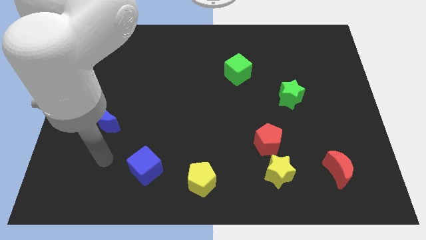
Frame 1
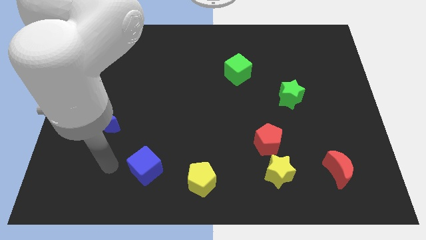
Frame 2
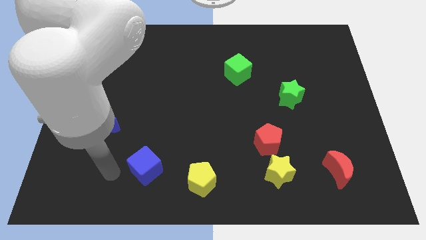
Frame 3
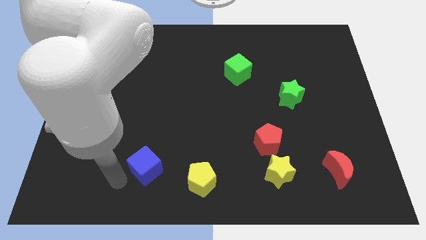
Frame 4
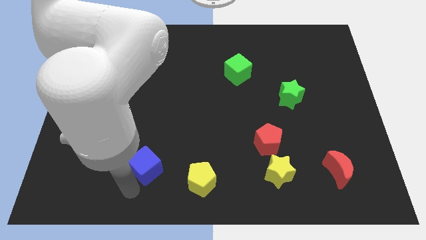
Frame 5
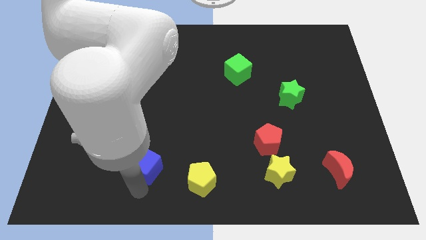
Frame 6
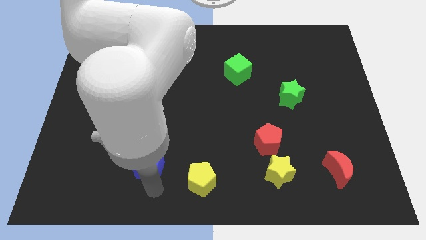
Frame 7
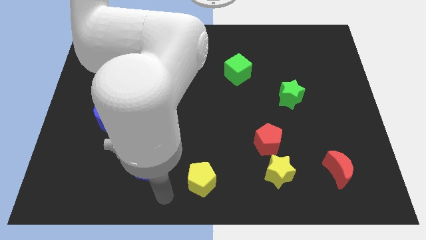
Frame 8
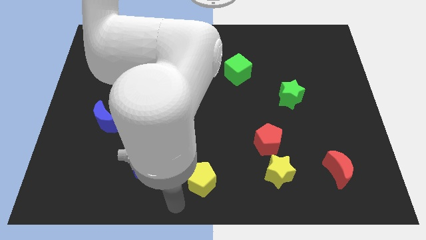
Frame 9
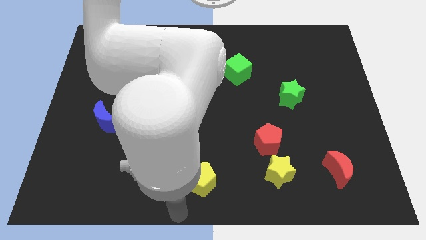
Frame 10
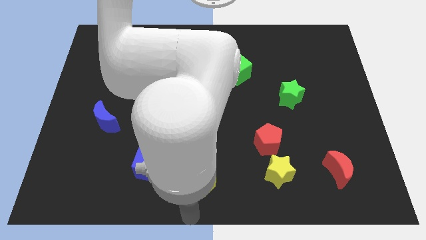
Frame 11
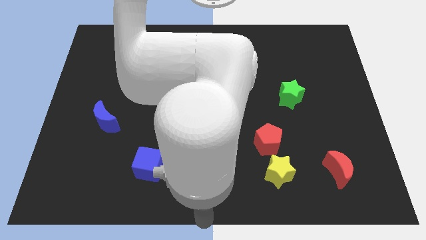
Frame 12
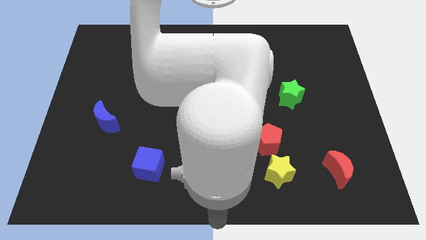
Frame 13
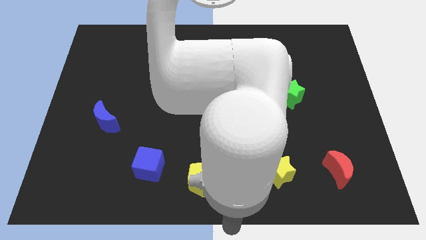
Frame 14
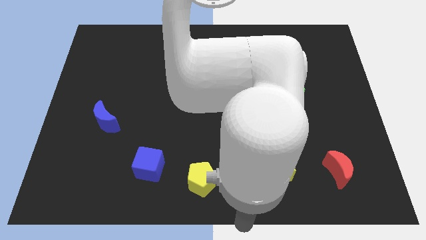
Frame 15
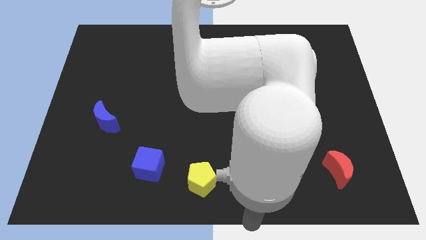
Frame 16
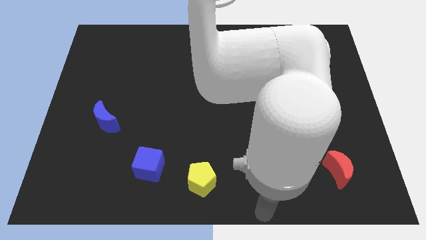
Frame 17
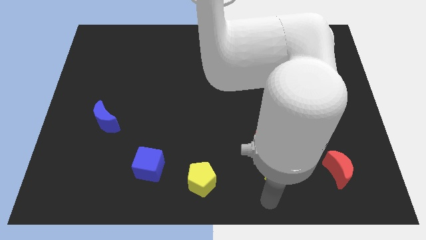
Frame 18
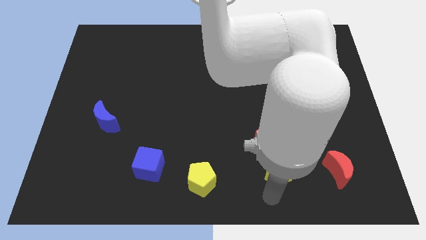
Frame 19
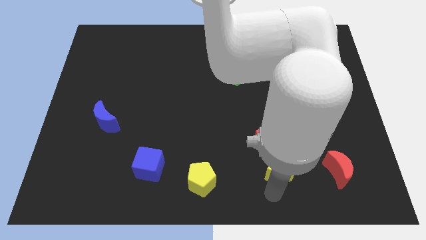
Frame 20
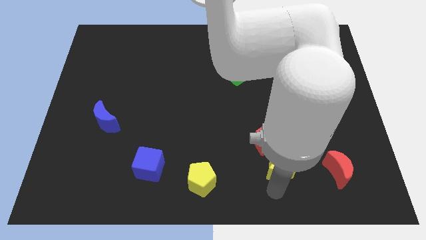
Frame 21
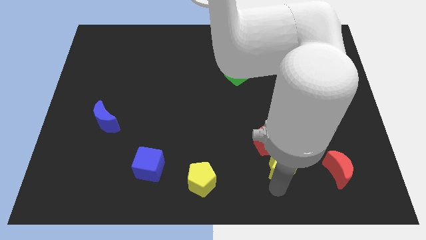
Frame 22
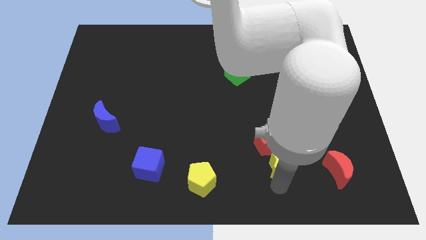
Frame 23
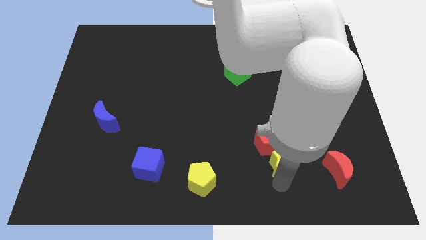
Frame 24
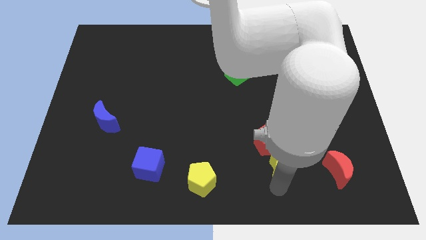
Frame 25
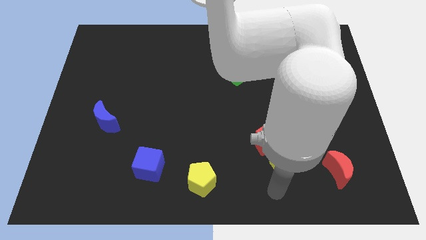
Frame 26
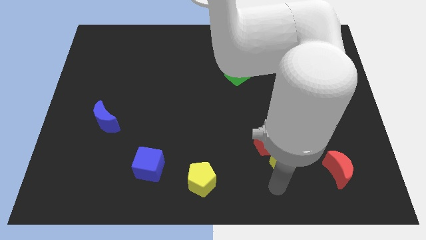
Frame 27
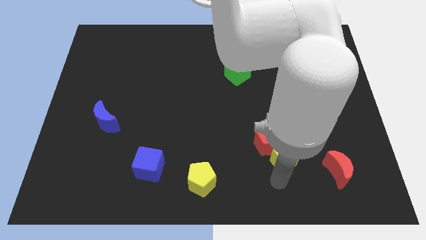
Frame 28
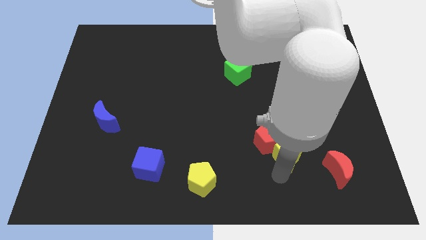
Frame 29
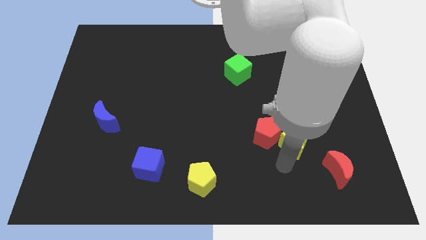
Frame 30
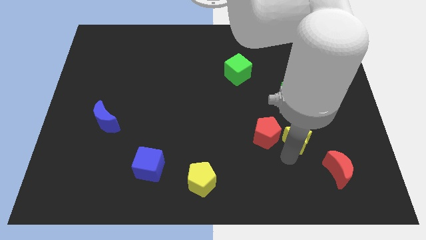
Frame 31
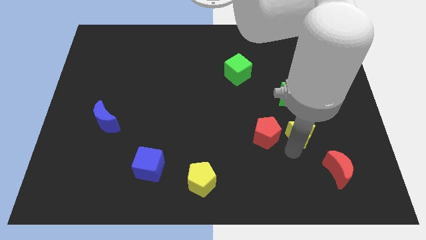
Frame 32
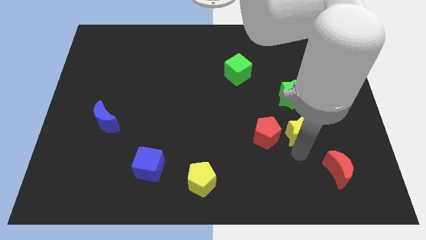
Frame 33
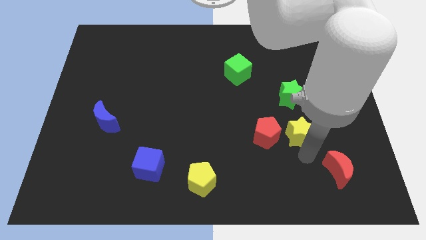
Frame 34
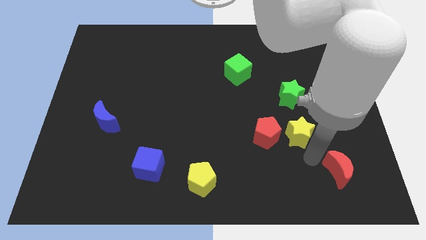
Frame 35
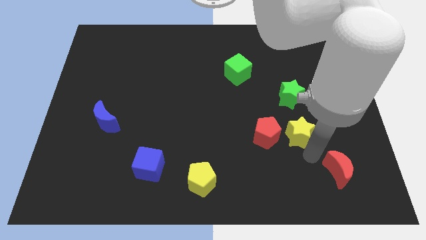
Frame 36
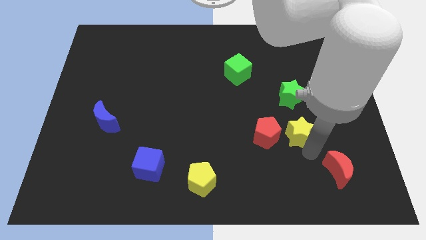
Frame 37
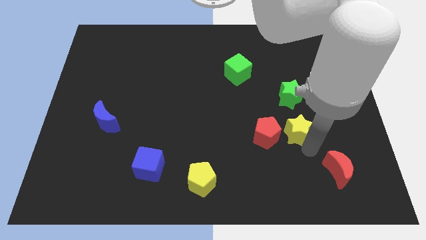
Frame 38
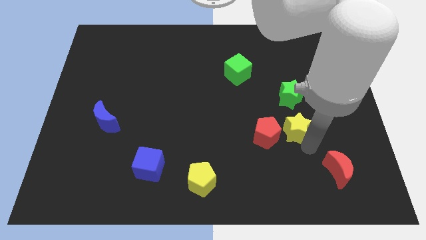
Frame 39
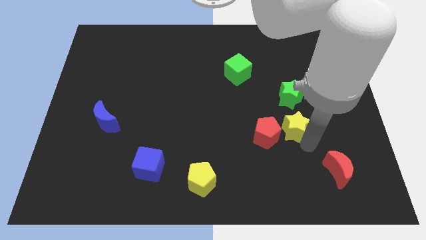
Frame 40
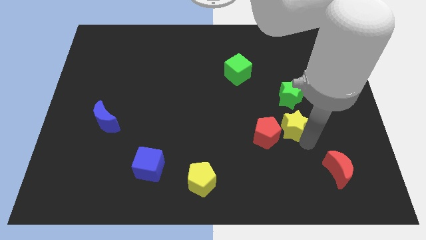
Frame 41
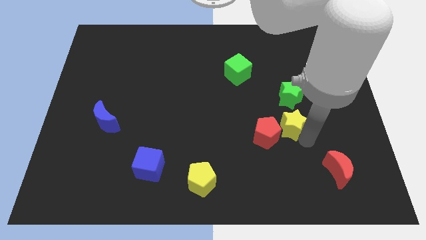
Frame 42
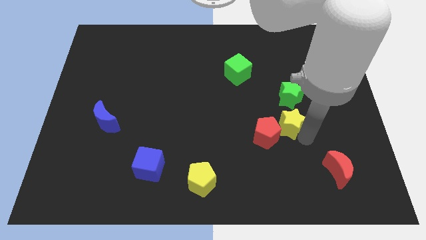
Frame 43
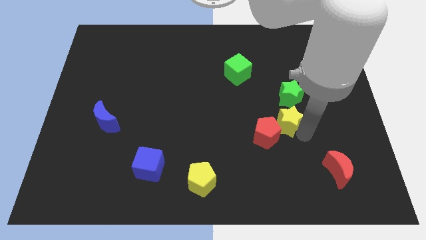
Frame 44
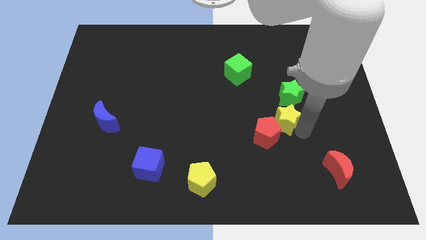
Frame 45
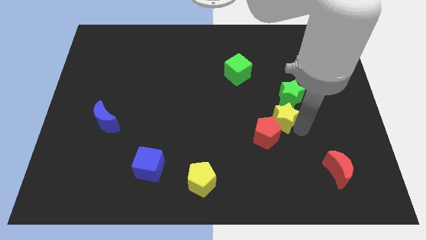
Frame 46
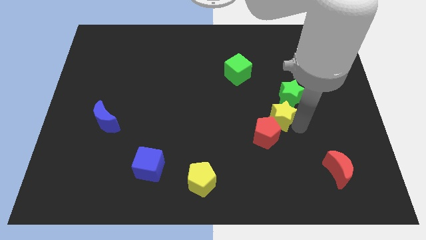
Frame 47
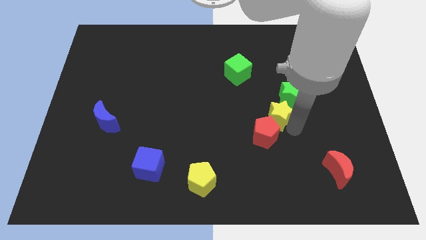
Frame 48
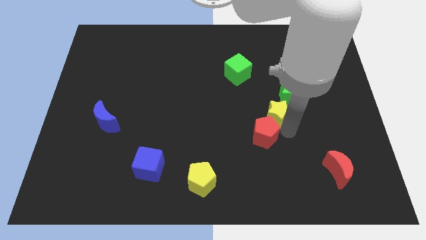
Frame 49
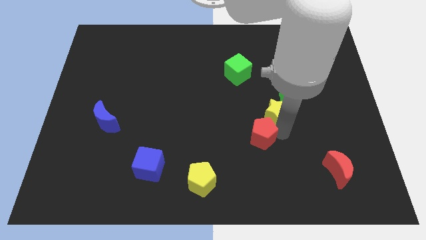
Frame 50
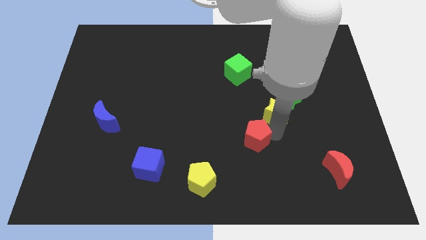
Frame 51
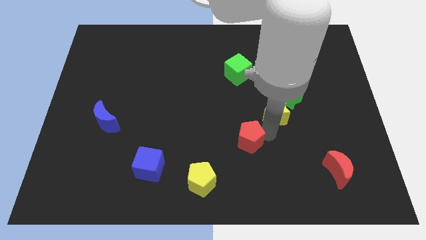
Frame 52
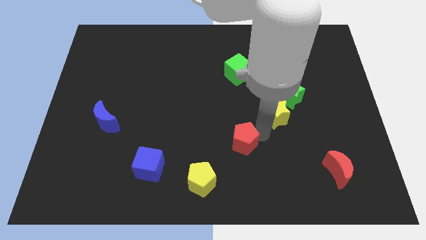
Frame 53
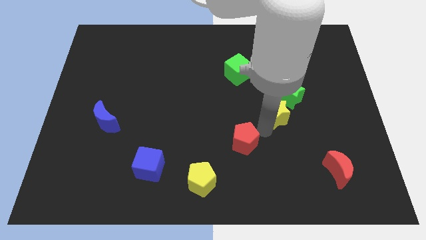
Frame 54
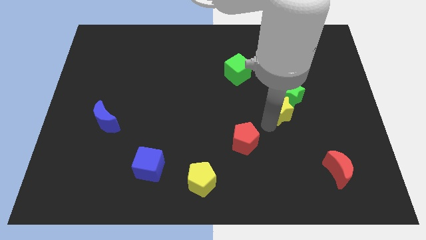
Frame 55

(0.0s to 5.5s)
put the yellow star to the green star

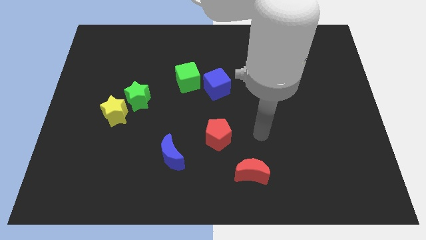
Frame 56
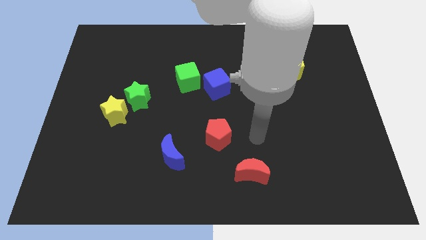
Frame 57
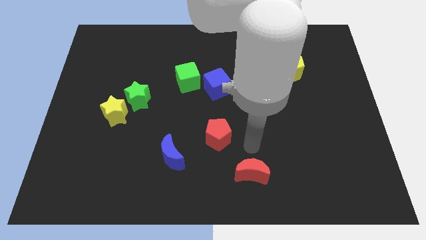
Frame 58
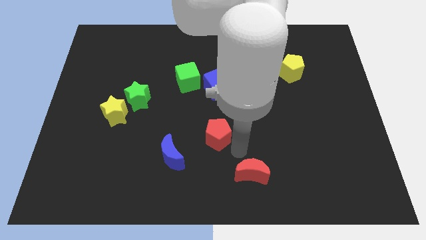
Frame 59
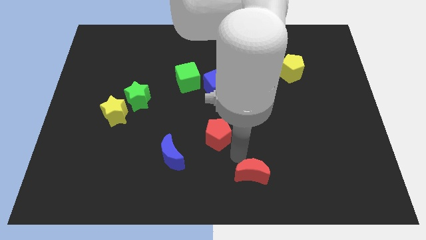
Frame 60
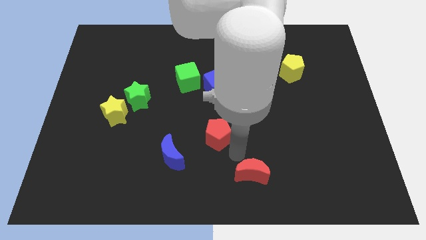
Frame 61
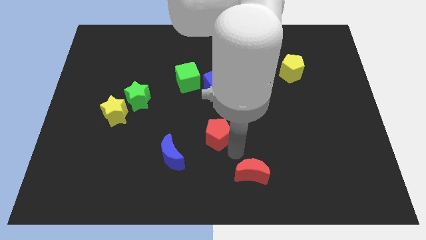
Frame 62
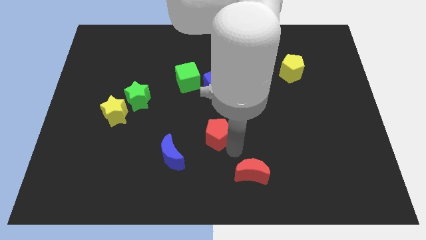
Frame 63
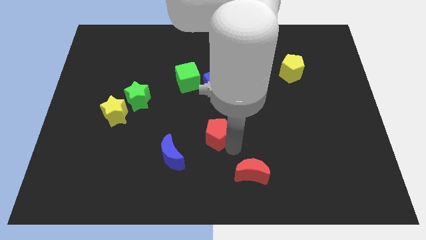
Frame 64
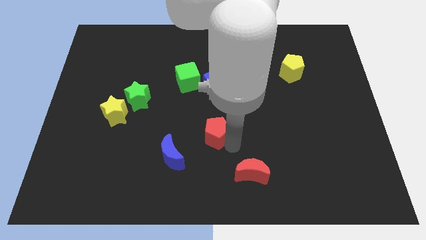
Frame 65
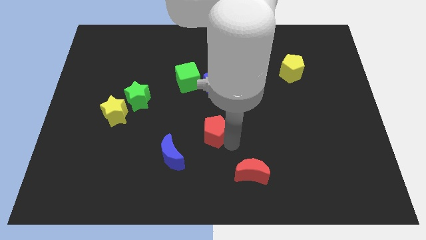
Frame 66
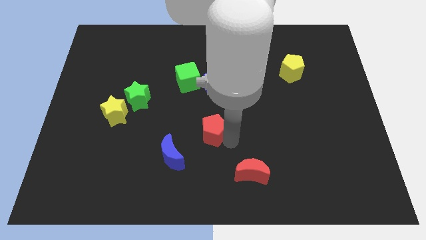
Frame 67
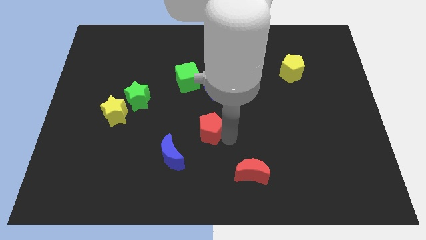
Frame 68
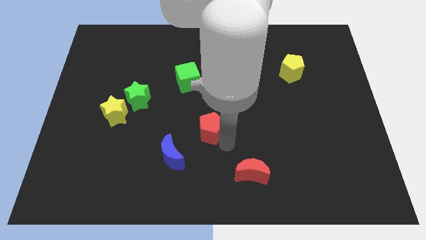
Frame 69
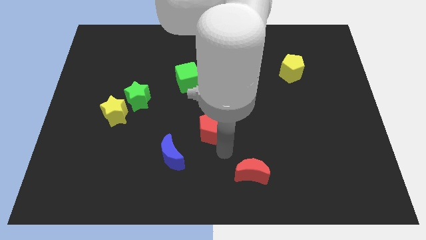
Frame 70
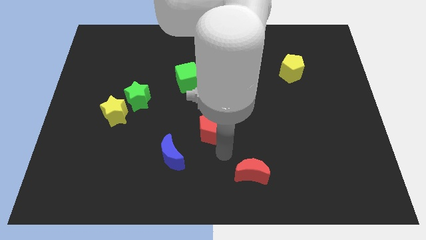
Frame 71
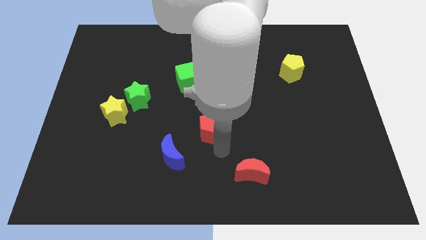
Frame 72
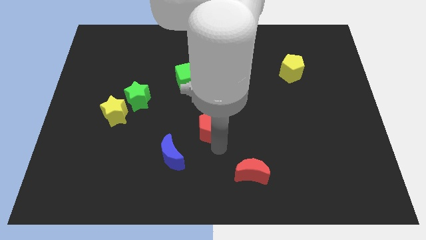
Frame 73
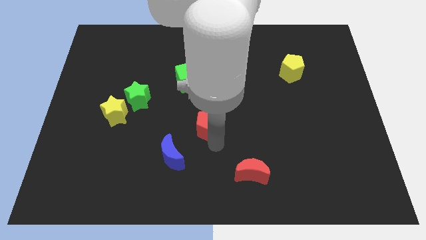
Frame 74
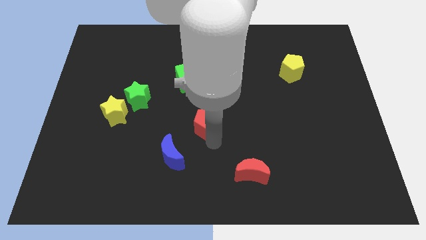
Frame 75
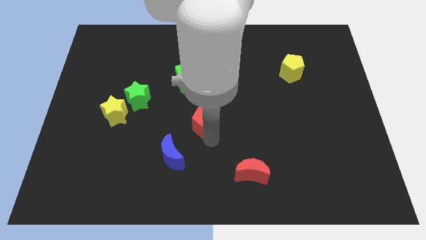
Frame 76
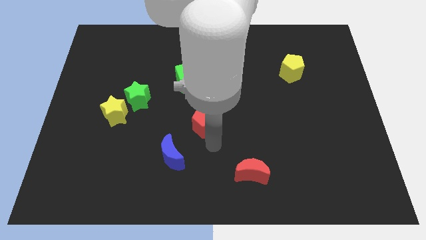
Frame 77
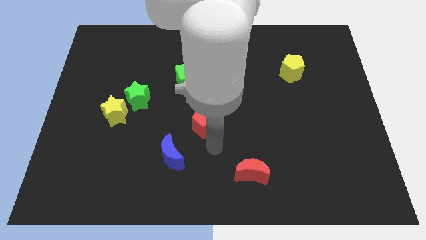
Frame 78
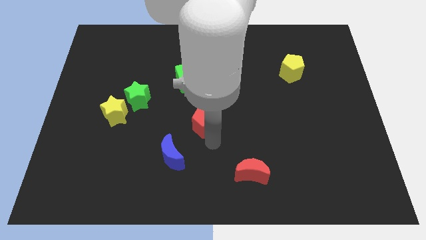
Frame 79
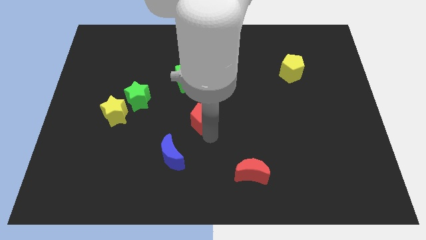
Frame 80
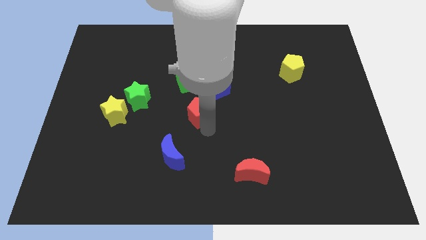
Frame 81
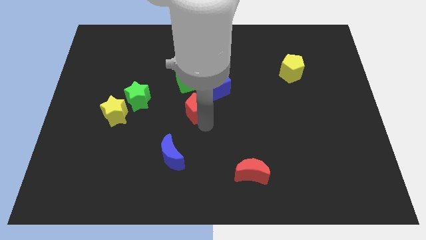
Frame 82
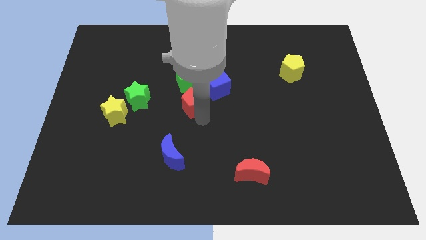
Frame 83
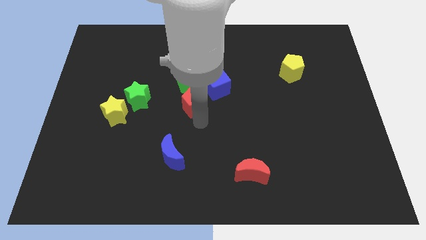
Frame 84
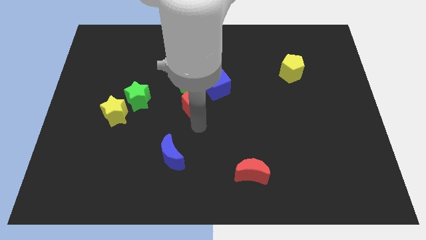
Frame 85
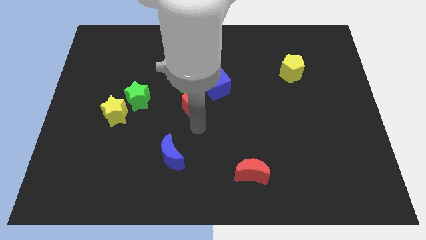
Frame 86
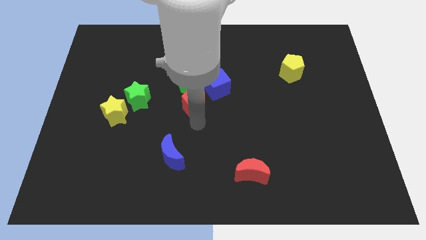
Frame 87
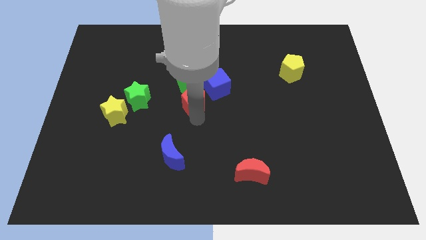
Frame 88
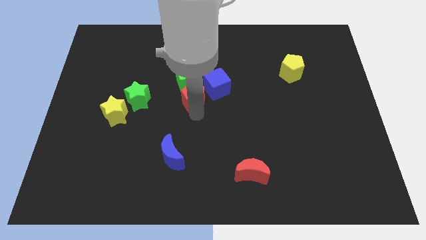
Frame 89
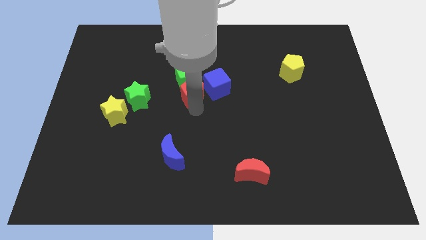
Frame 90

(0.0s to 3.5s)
move the red pentagon towards the green cube
